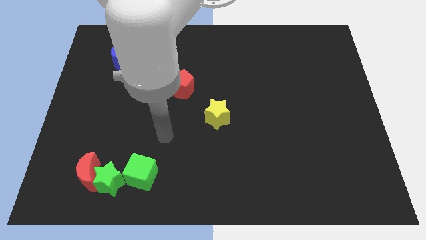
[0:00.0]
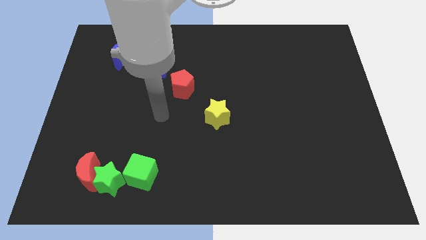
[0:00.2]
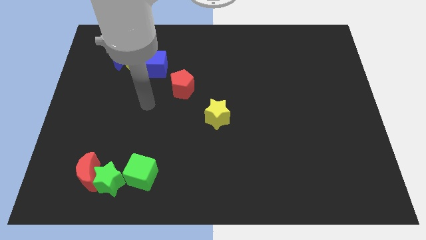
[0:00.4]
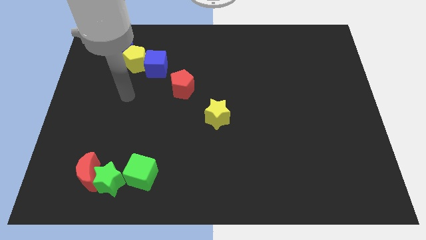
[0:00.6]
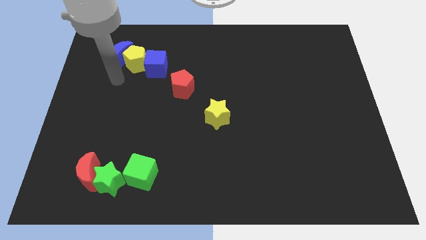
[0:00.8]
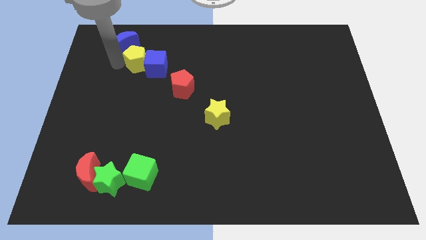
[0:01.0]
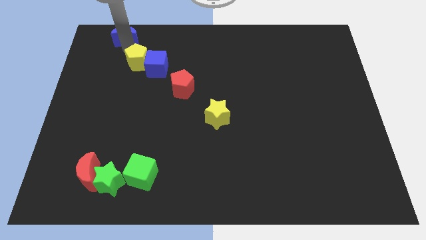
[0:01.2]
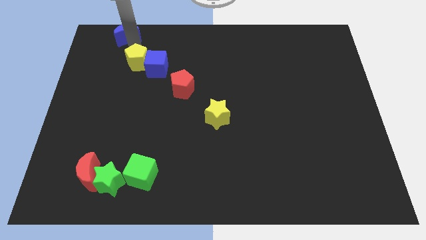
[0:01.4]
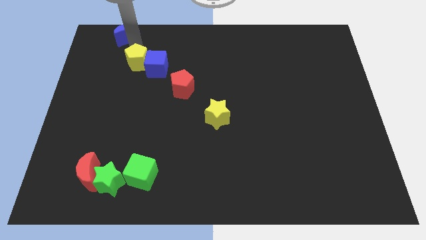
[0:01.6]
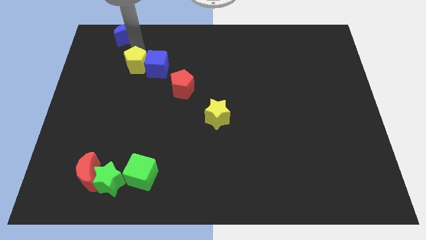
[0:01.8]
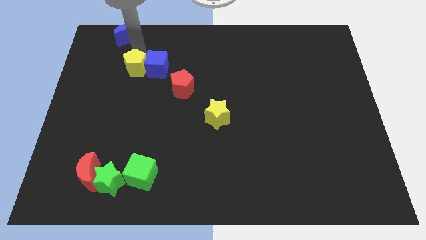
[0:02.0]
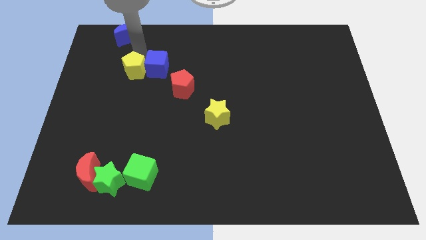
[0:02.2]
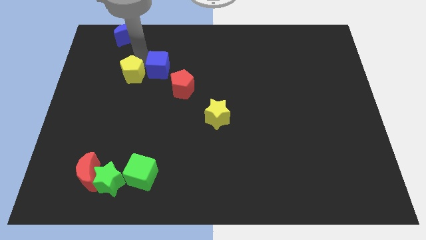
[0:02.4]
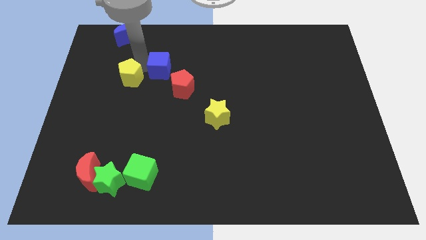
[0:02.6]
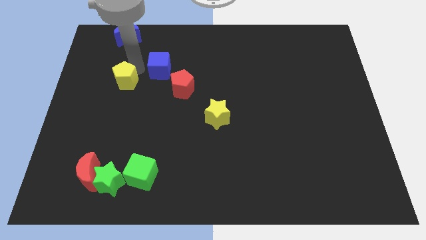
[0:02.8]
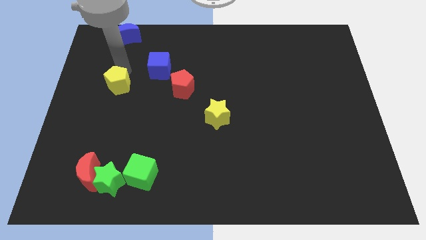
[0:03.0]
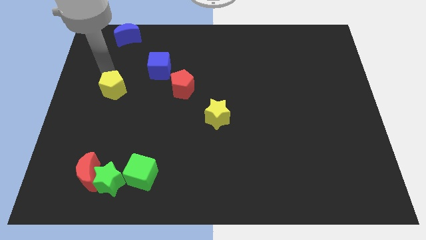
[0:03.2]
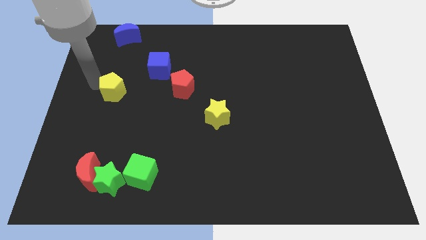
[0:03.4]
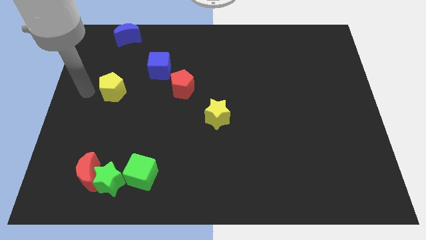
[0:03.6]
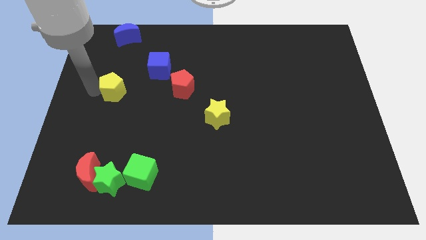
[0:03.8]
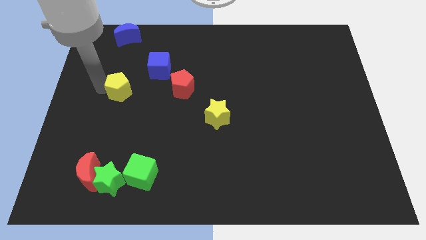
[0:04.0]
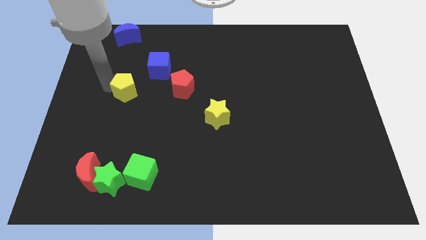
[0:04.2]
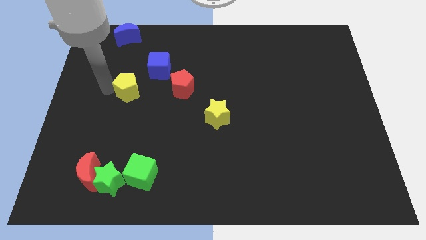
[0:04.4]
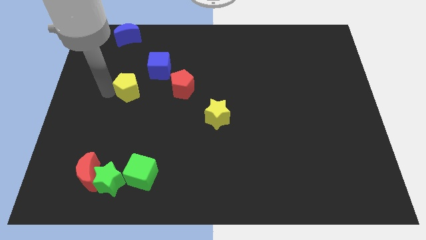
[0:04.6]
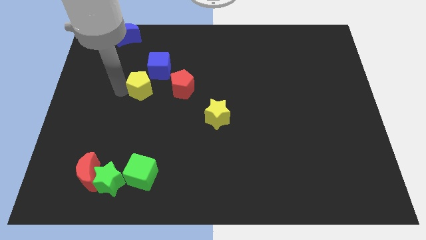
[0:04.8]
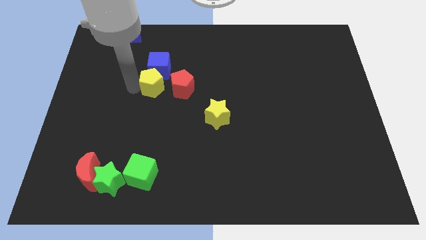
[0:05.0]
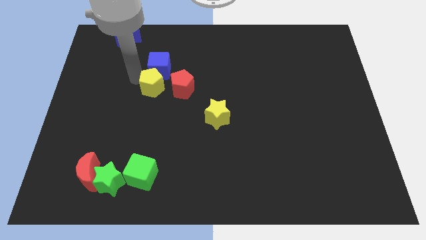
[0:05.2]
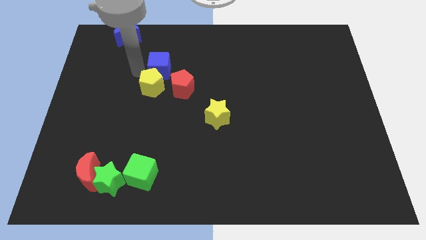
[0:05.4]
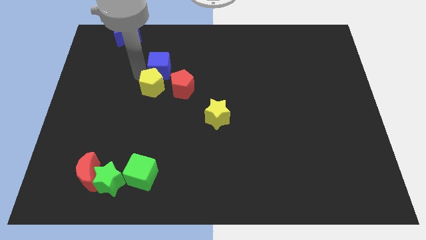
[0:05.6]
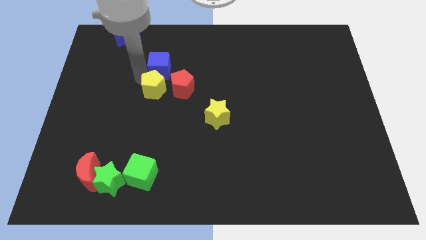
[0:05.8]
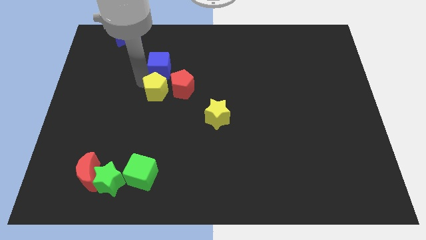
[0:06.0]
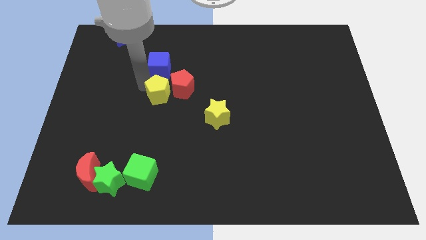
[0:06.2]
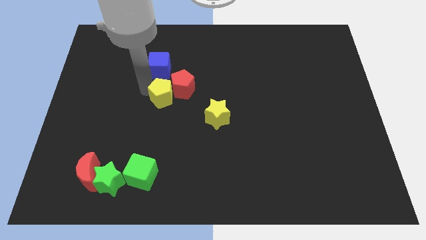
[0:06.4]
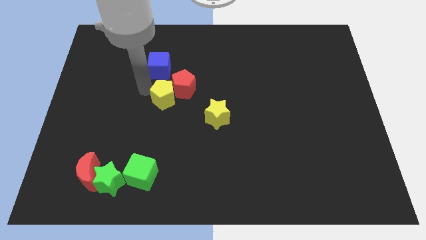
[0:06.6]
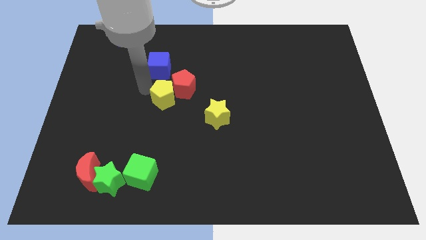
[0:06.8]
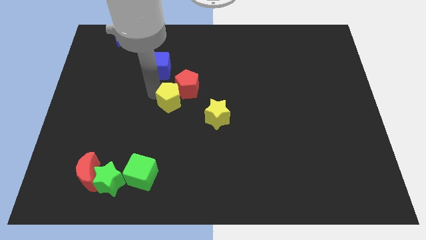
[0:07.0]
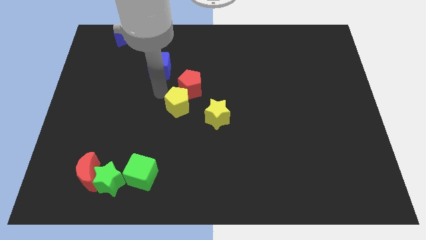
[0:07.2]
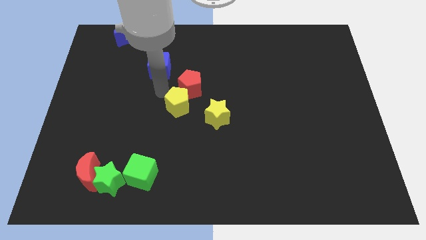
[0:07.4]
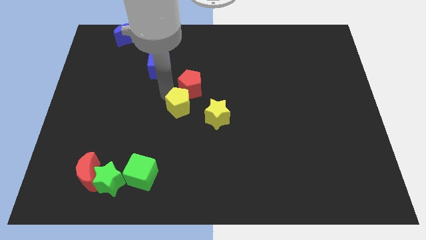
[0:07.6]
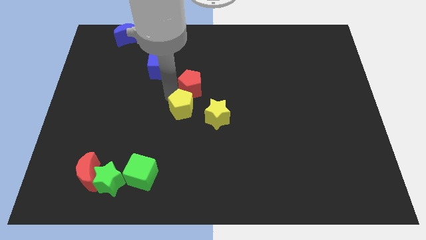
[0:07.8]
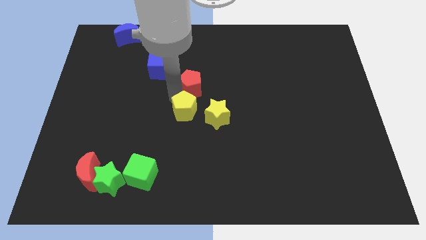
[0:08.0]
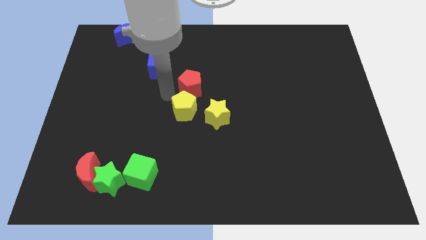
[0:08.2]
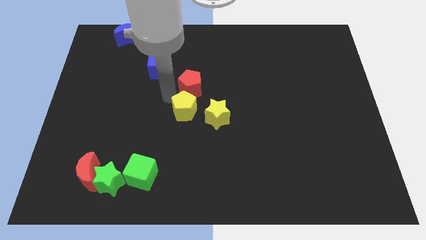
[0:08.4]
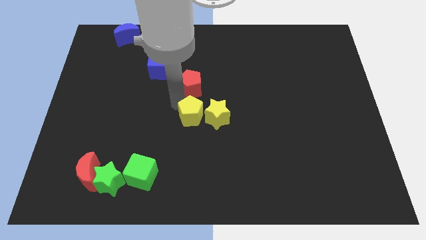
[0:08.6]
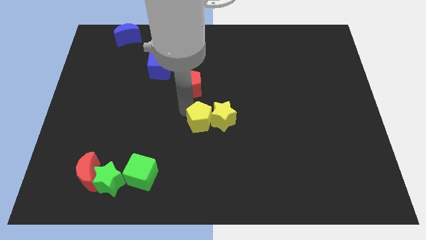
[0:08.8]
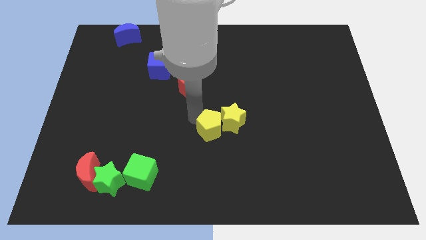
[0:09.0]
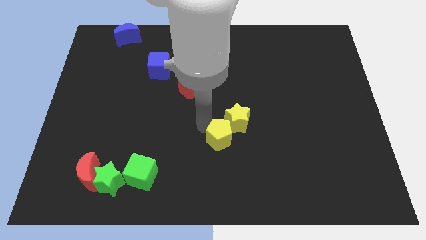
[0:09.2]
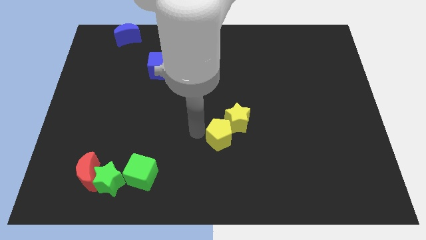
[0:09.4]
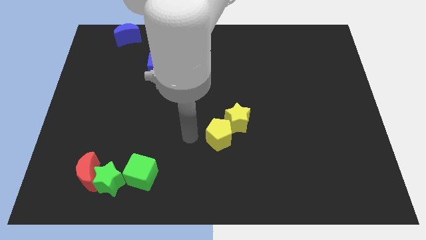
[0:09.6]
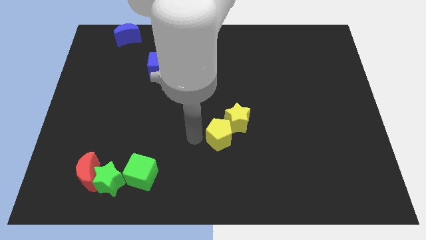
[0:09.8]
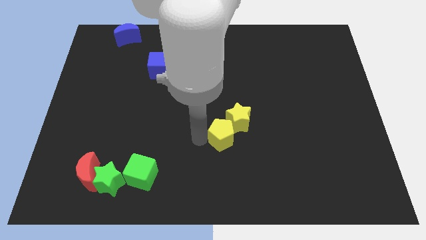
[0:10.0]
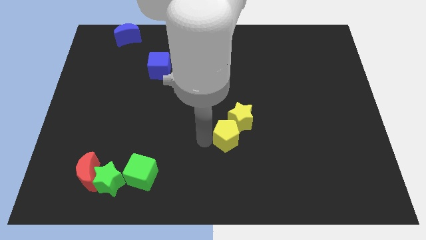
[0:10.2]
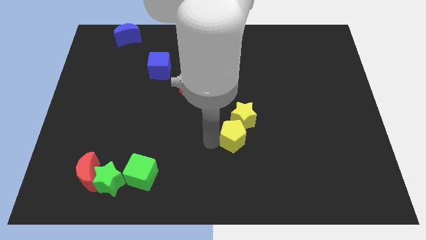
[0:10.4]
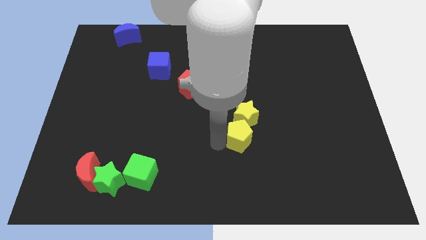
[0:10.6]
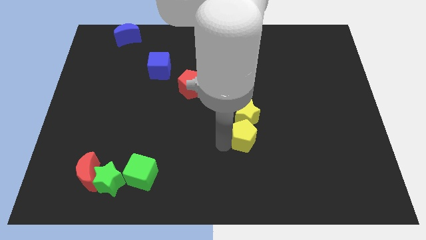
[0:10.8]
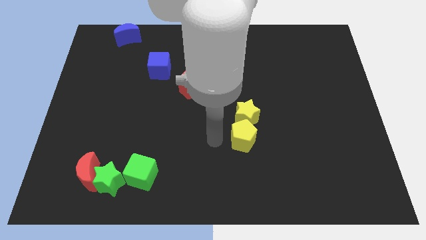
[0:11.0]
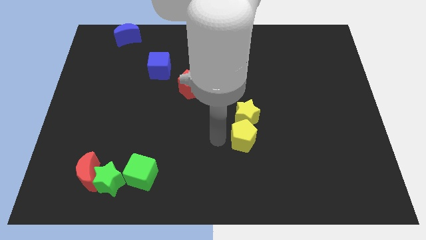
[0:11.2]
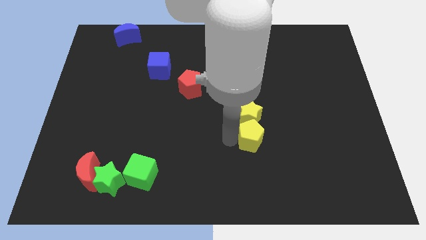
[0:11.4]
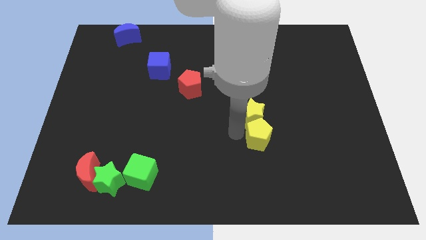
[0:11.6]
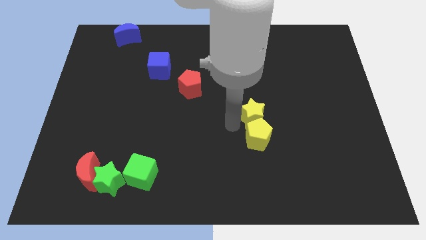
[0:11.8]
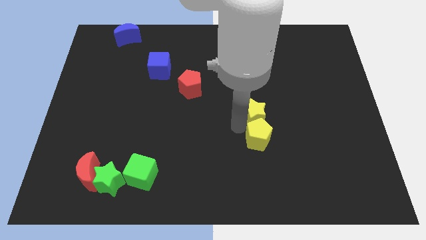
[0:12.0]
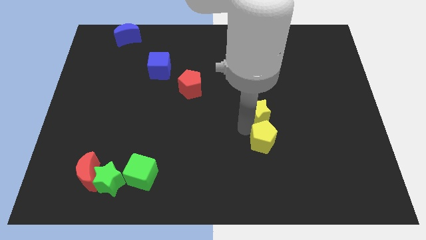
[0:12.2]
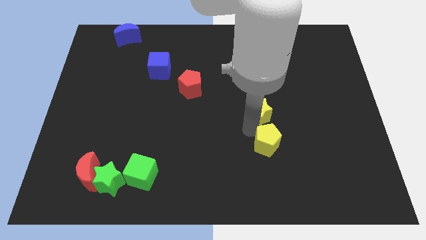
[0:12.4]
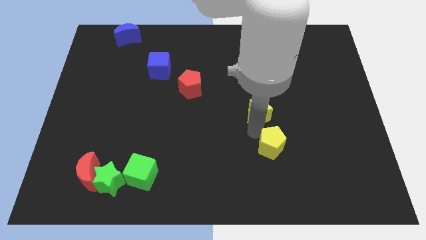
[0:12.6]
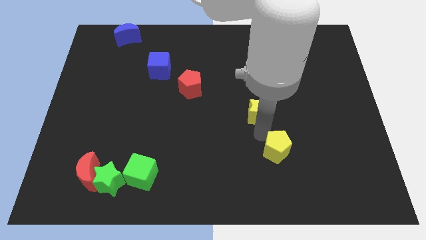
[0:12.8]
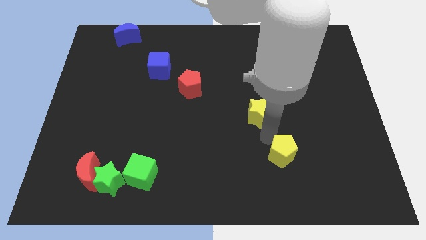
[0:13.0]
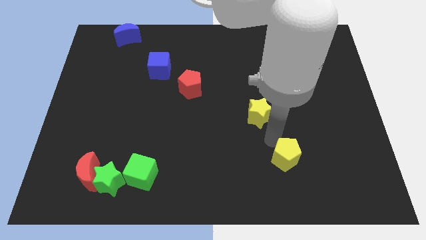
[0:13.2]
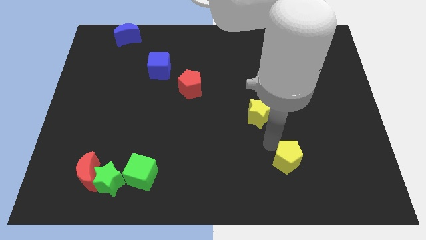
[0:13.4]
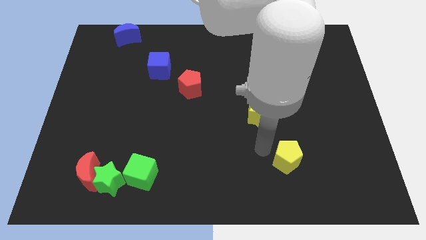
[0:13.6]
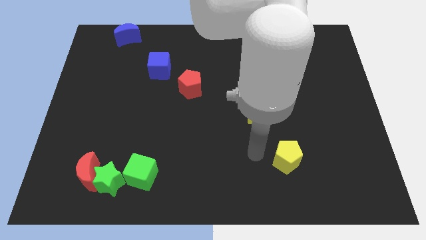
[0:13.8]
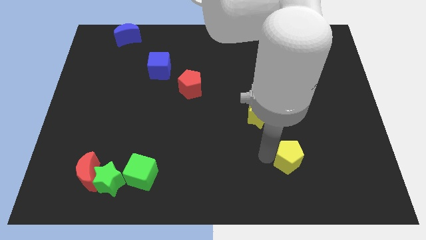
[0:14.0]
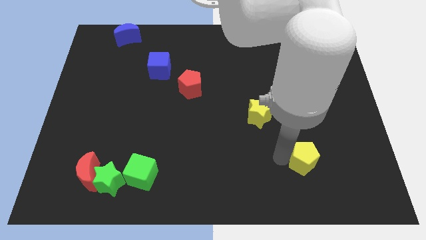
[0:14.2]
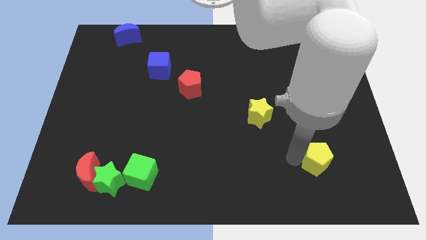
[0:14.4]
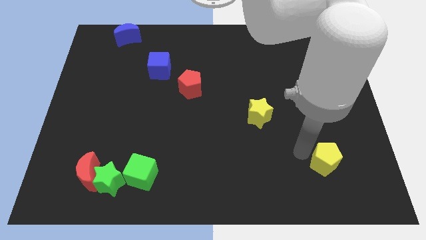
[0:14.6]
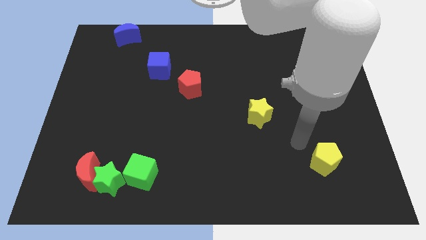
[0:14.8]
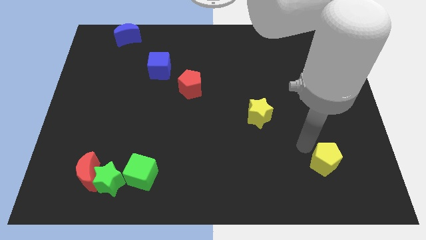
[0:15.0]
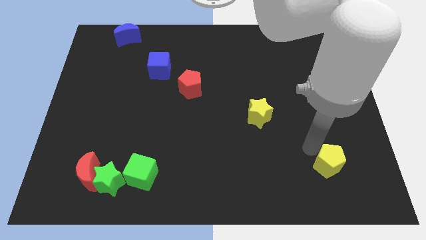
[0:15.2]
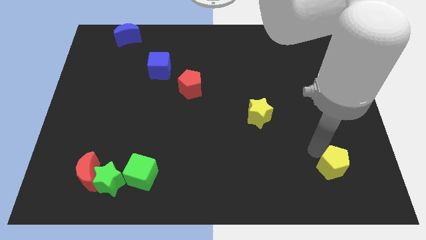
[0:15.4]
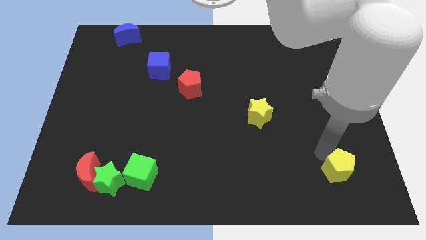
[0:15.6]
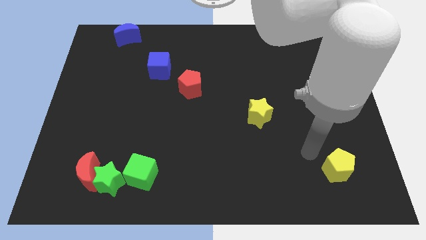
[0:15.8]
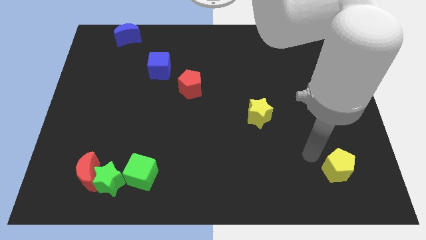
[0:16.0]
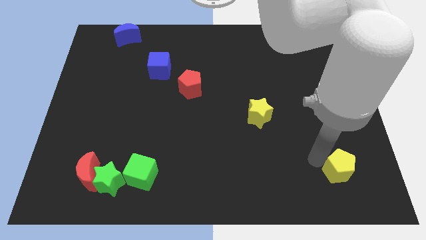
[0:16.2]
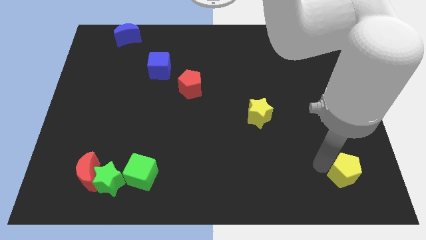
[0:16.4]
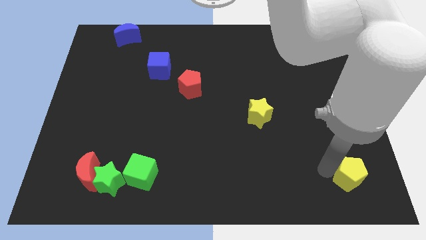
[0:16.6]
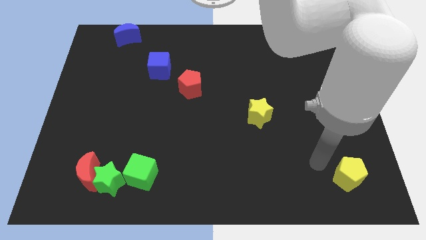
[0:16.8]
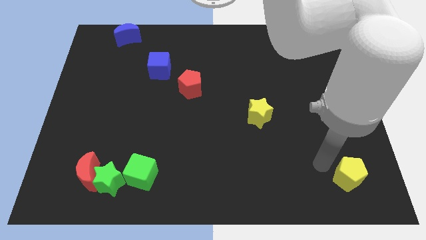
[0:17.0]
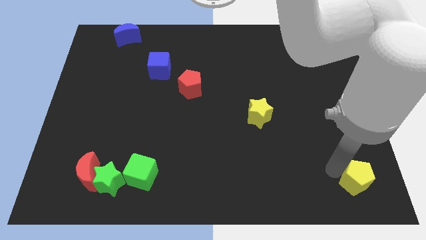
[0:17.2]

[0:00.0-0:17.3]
move the yellow pentagon to the lower right corner
